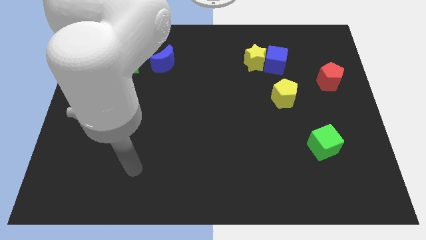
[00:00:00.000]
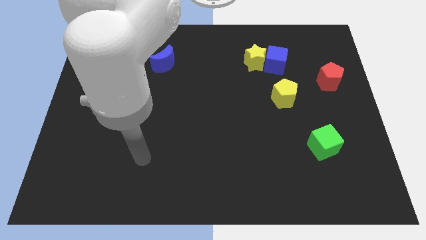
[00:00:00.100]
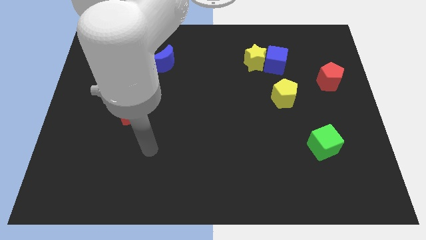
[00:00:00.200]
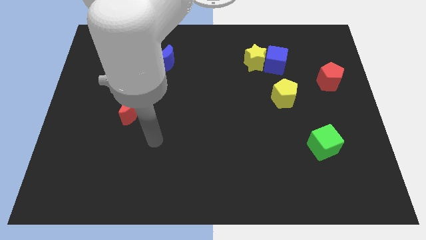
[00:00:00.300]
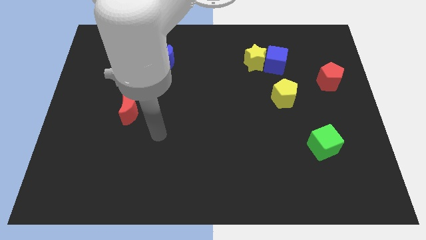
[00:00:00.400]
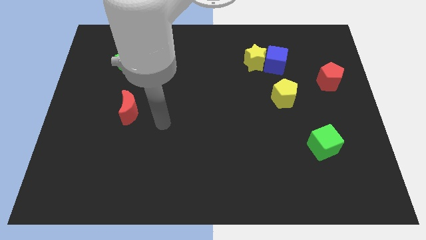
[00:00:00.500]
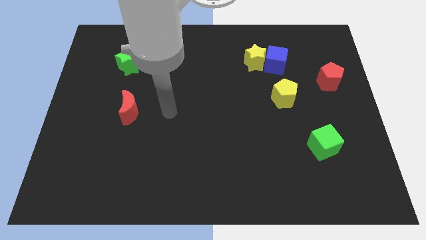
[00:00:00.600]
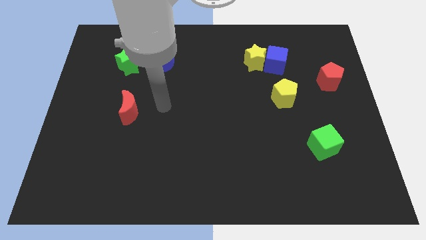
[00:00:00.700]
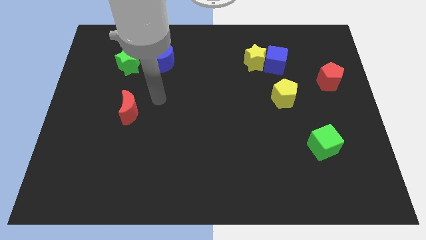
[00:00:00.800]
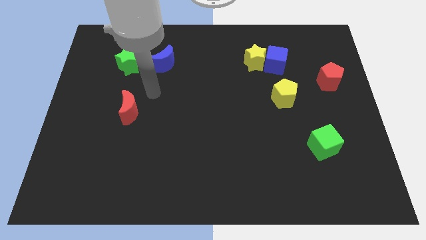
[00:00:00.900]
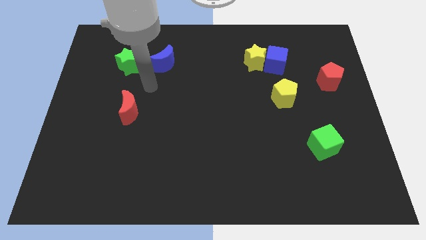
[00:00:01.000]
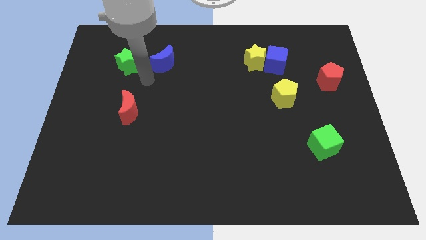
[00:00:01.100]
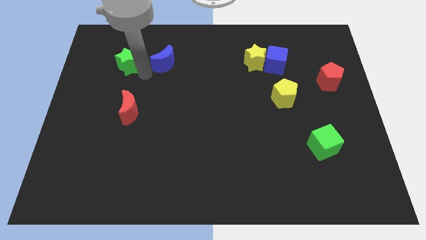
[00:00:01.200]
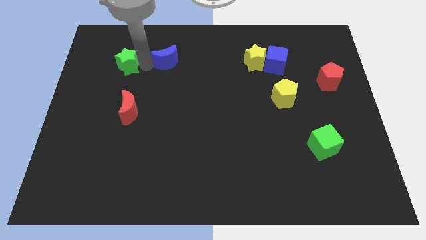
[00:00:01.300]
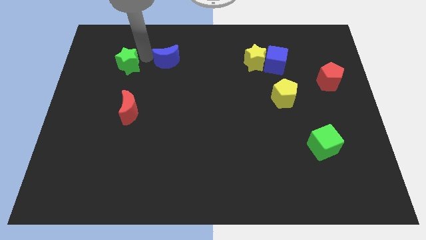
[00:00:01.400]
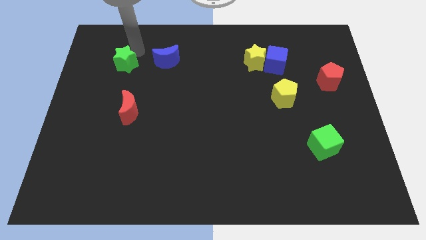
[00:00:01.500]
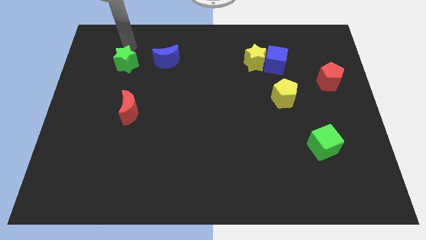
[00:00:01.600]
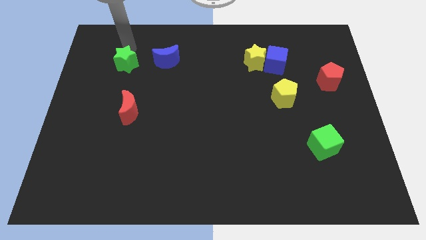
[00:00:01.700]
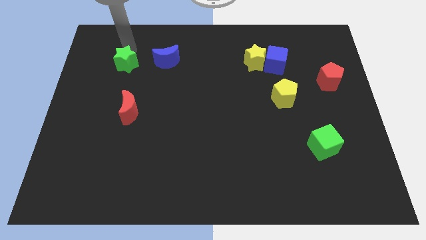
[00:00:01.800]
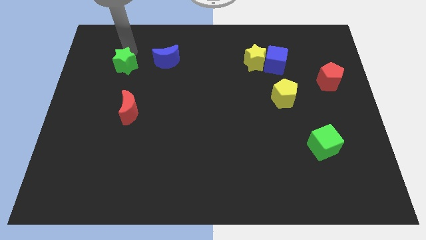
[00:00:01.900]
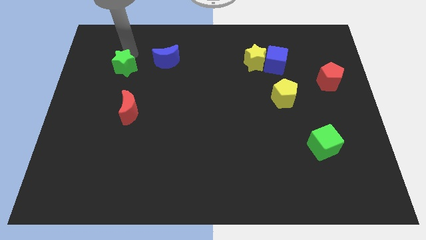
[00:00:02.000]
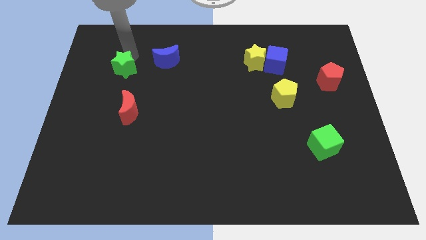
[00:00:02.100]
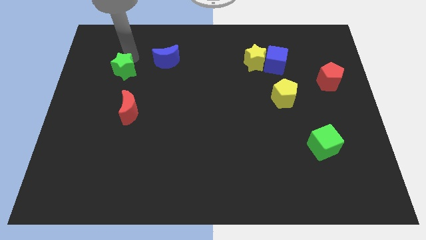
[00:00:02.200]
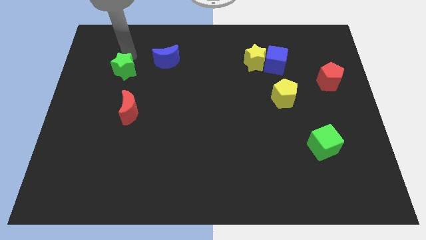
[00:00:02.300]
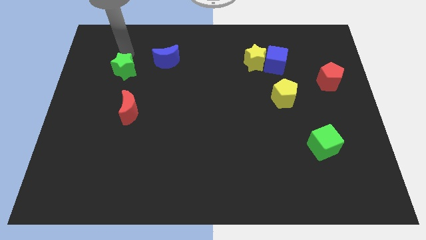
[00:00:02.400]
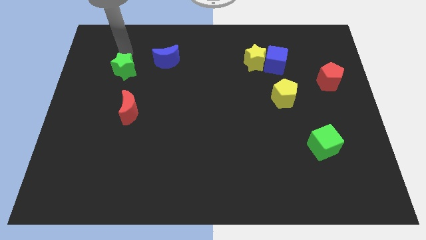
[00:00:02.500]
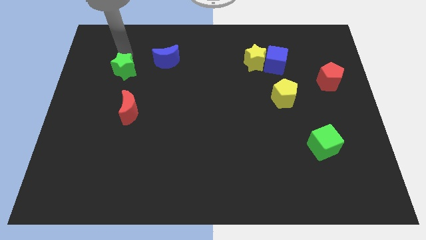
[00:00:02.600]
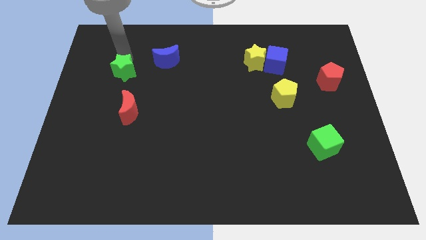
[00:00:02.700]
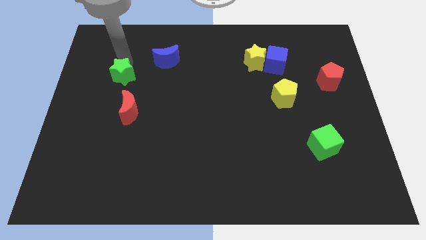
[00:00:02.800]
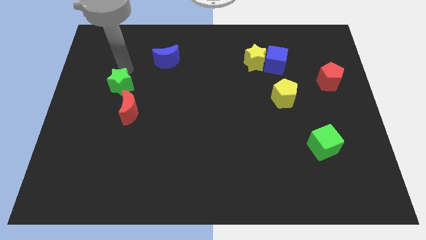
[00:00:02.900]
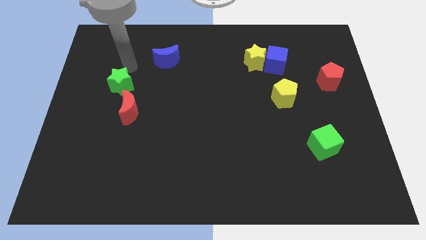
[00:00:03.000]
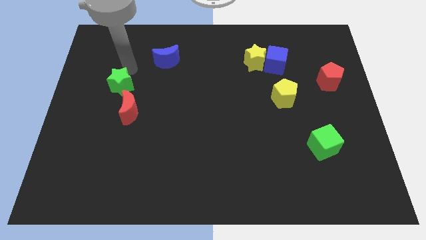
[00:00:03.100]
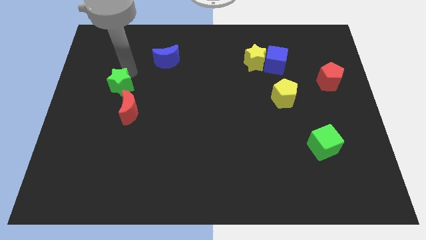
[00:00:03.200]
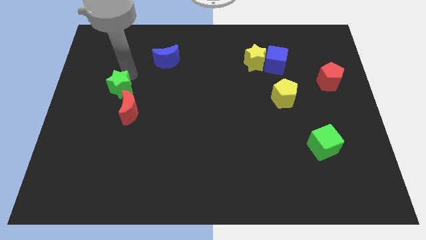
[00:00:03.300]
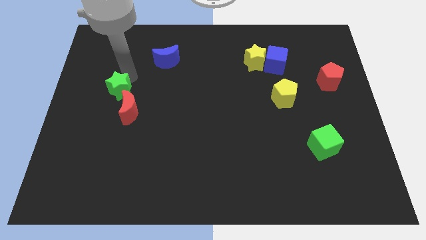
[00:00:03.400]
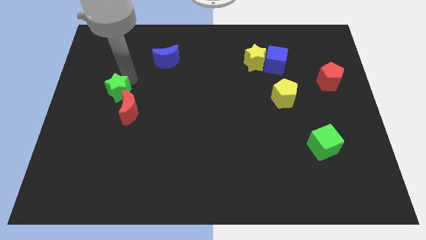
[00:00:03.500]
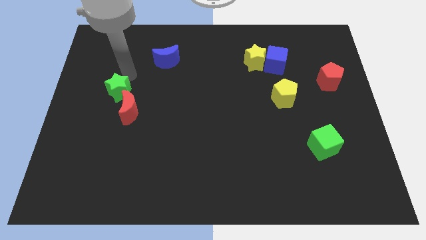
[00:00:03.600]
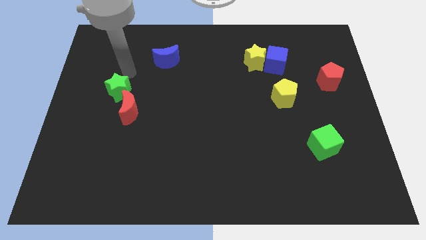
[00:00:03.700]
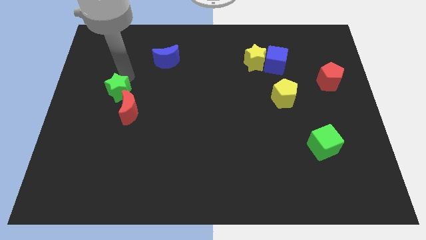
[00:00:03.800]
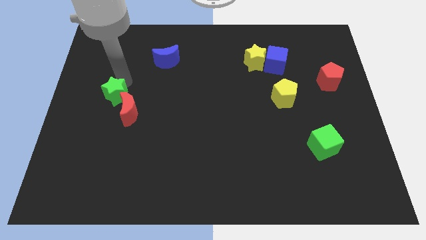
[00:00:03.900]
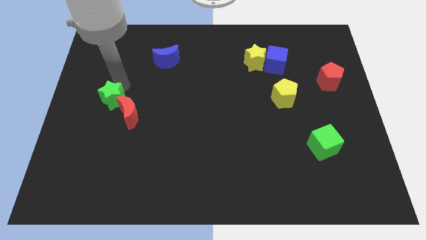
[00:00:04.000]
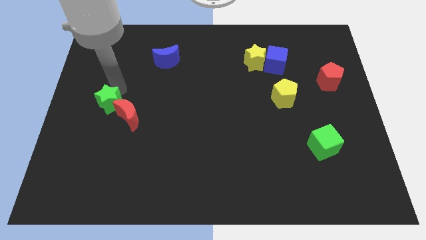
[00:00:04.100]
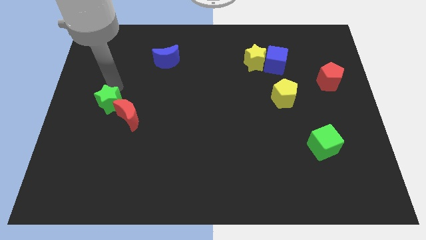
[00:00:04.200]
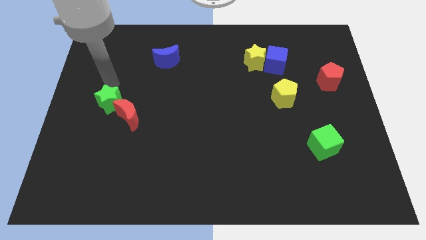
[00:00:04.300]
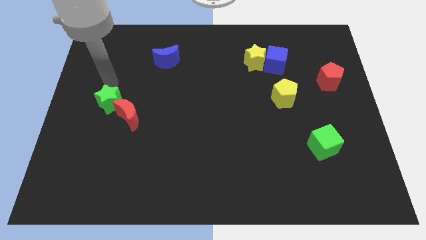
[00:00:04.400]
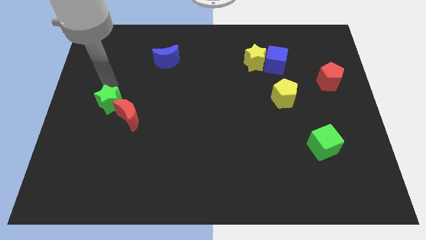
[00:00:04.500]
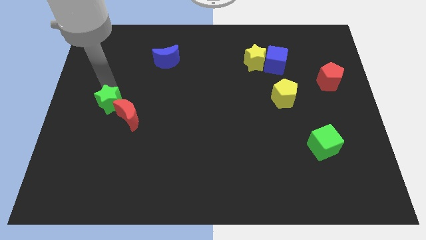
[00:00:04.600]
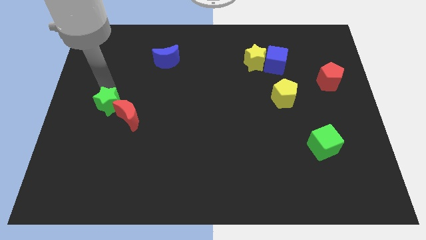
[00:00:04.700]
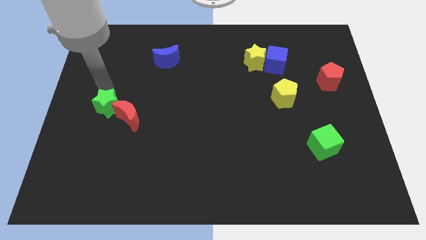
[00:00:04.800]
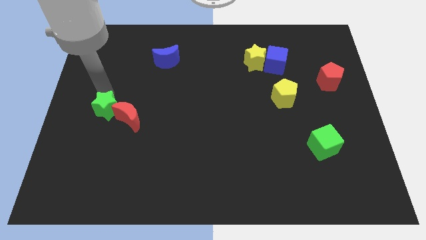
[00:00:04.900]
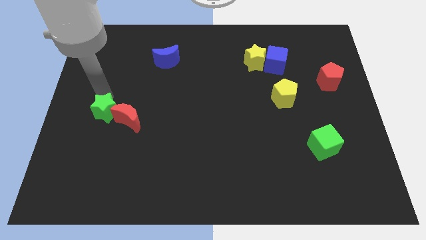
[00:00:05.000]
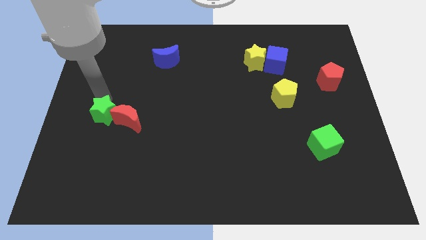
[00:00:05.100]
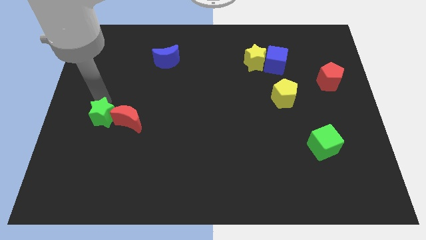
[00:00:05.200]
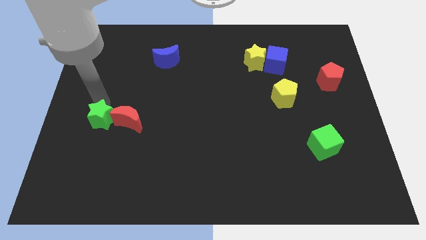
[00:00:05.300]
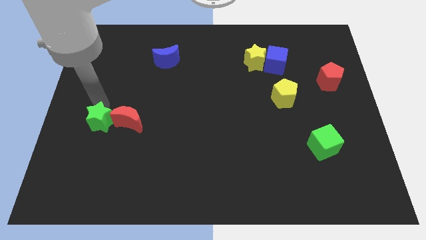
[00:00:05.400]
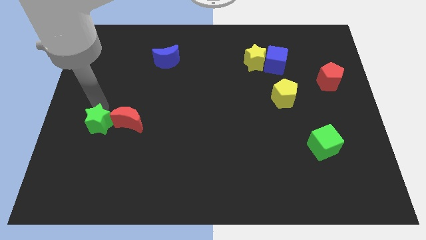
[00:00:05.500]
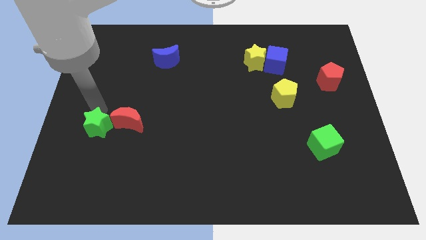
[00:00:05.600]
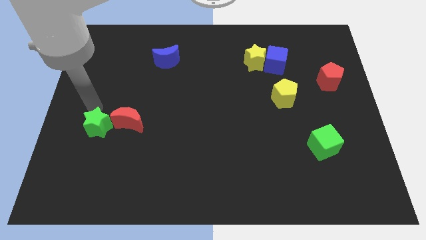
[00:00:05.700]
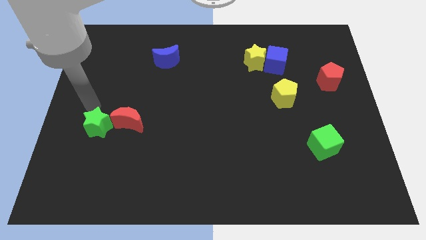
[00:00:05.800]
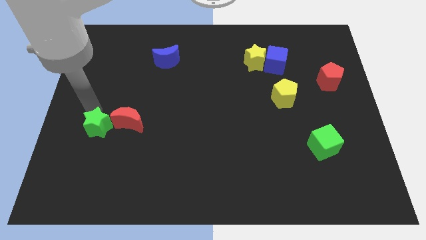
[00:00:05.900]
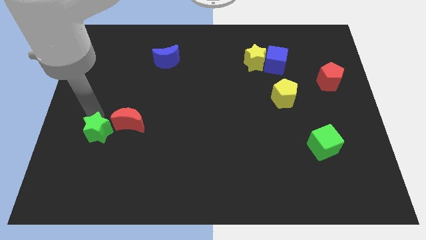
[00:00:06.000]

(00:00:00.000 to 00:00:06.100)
slide the green star downwards

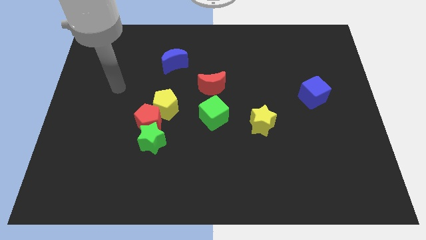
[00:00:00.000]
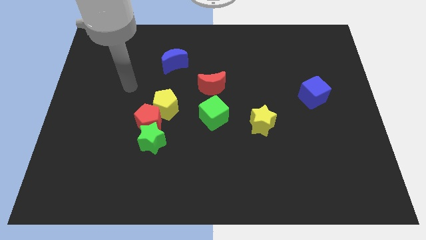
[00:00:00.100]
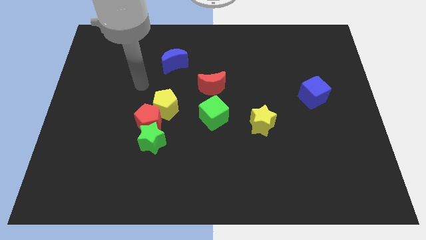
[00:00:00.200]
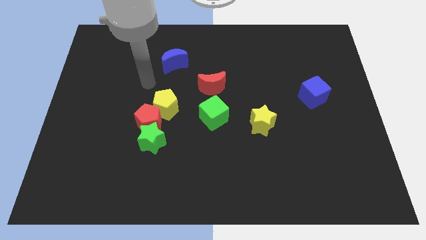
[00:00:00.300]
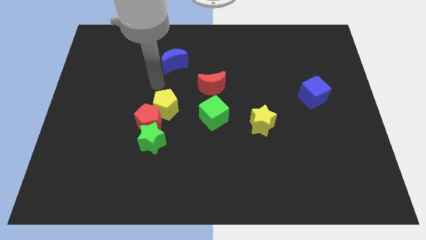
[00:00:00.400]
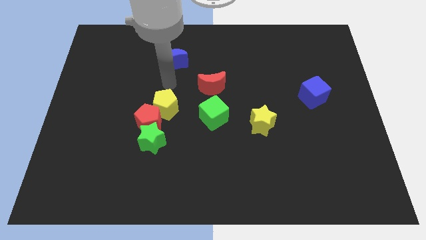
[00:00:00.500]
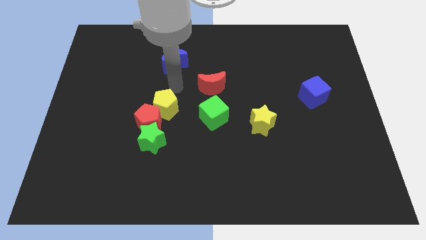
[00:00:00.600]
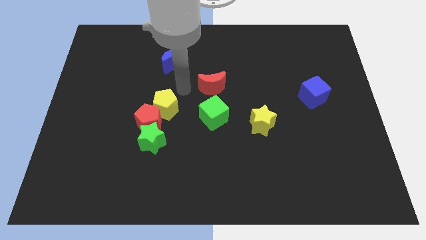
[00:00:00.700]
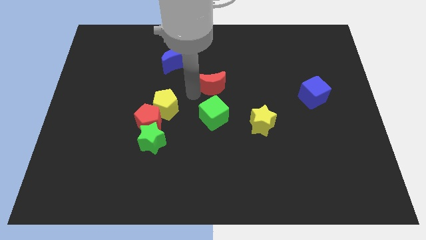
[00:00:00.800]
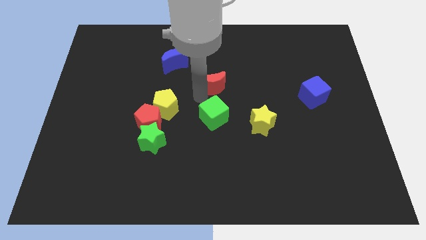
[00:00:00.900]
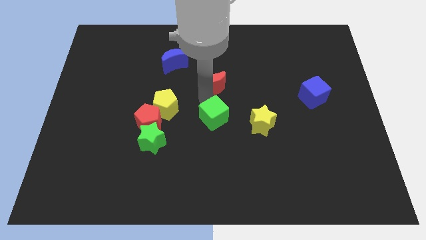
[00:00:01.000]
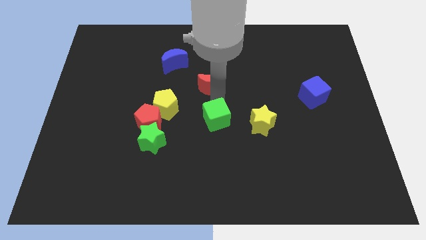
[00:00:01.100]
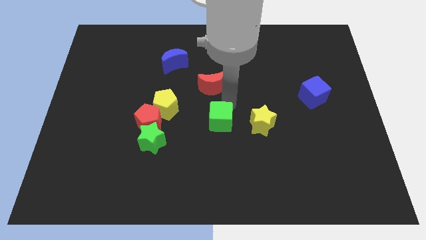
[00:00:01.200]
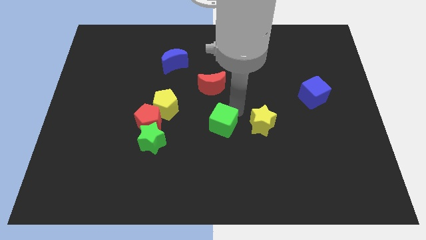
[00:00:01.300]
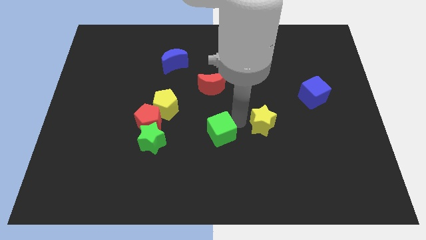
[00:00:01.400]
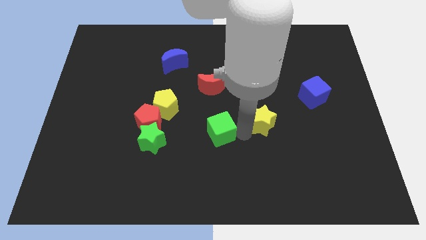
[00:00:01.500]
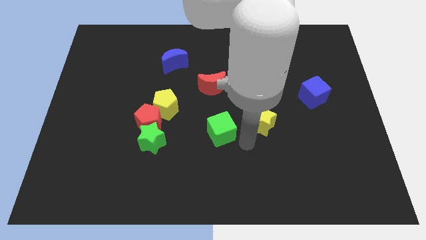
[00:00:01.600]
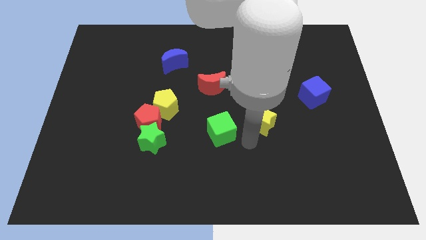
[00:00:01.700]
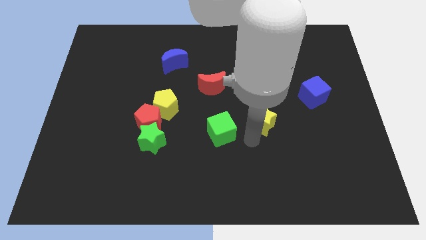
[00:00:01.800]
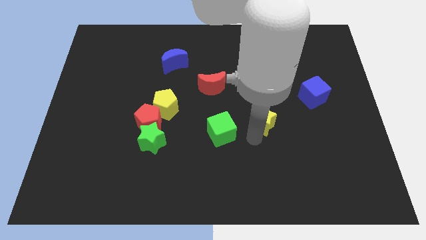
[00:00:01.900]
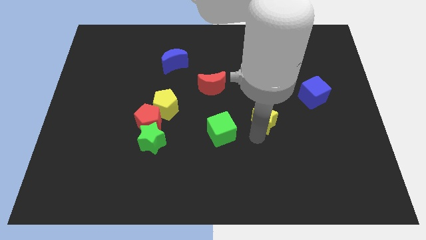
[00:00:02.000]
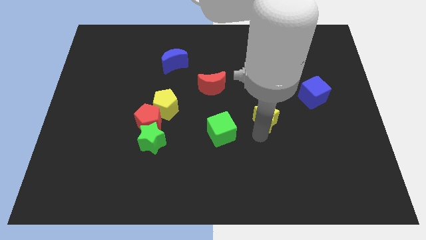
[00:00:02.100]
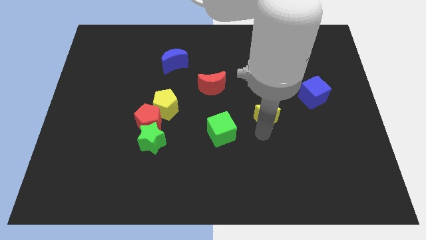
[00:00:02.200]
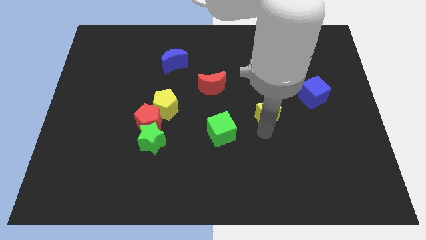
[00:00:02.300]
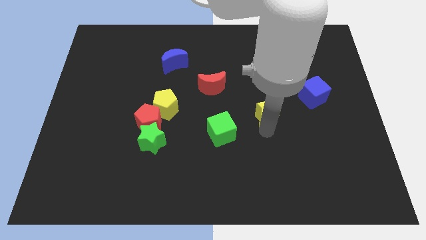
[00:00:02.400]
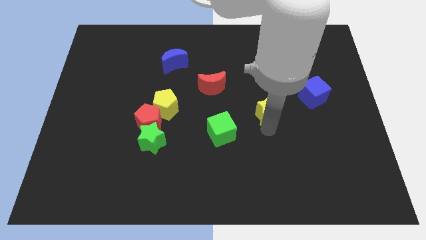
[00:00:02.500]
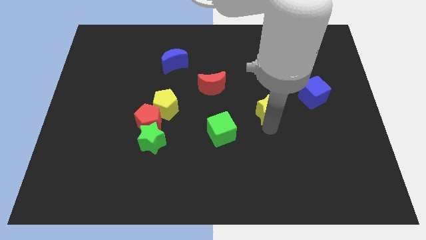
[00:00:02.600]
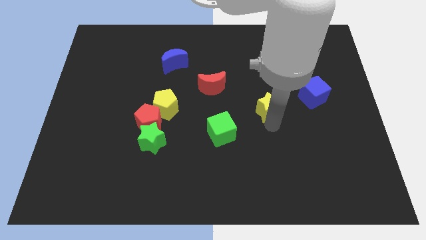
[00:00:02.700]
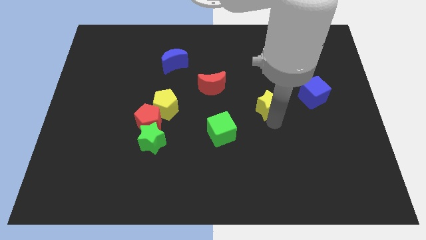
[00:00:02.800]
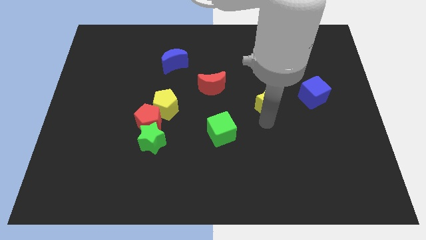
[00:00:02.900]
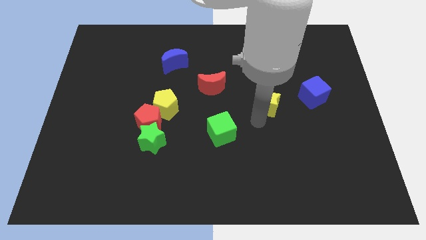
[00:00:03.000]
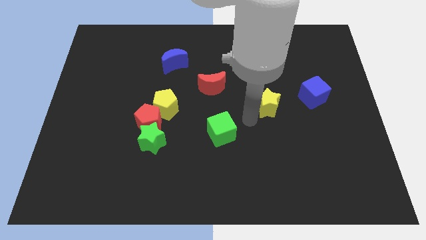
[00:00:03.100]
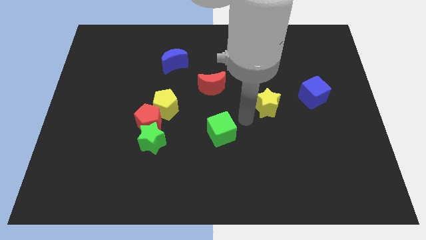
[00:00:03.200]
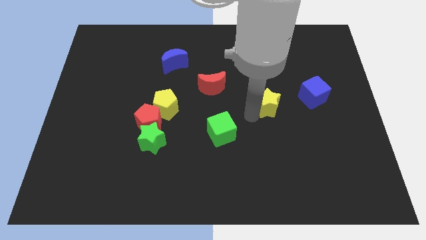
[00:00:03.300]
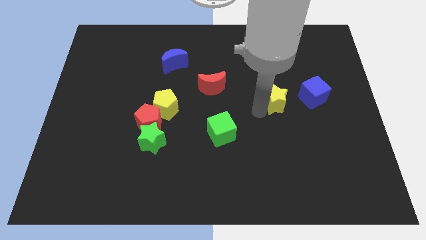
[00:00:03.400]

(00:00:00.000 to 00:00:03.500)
move the yellow star a bit up and right
